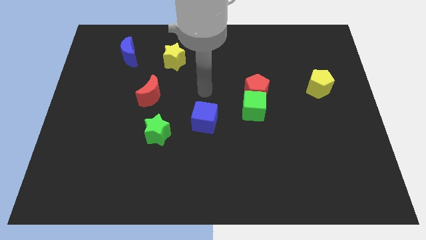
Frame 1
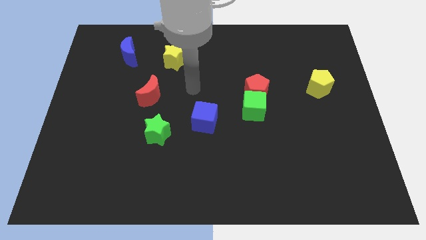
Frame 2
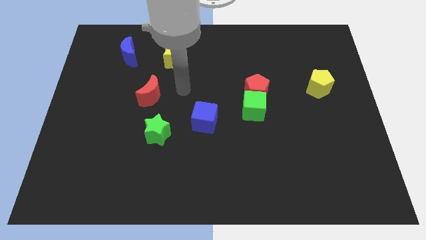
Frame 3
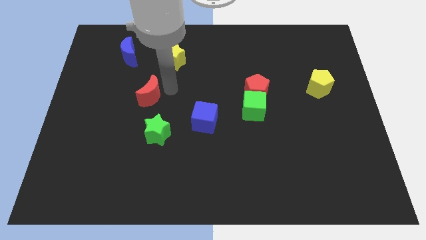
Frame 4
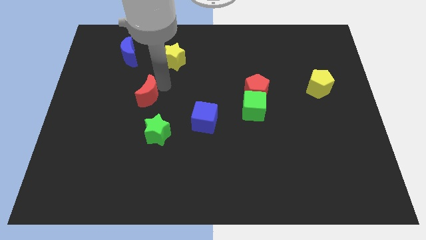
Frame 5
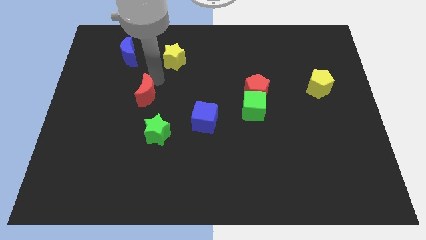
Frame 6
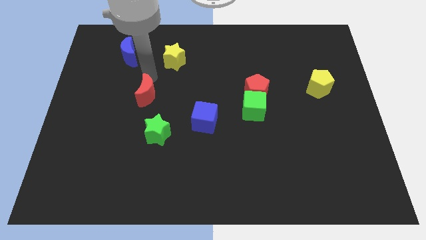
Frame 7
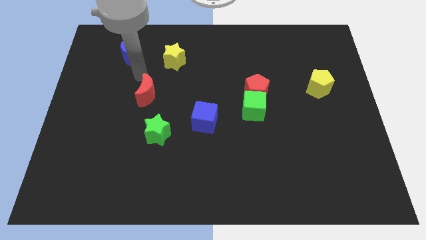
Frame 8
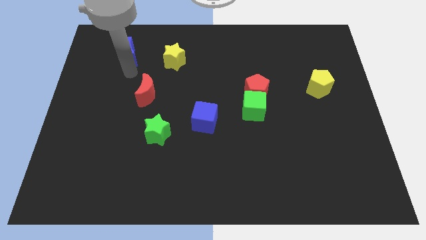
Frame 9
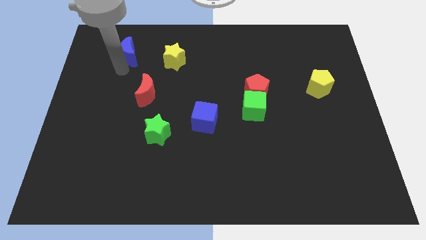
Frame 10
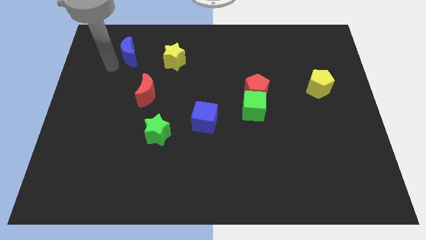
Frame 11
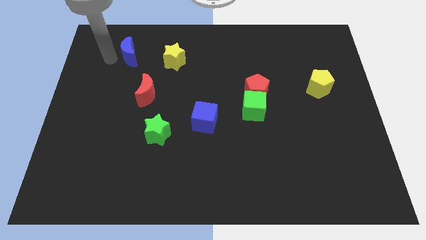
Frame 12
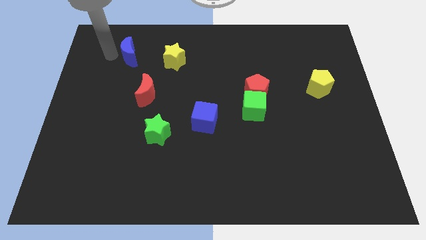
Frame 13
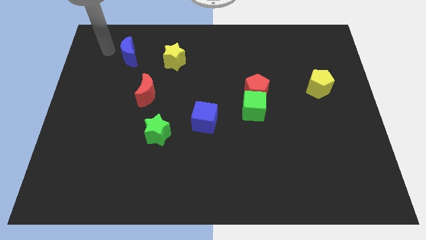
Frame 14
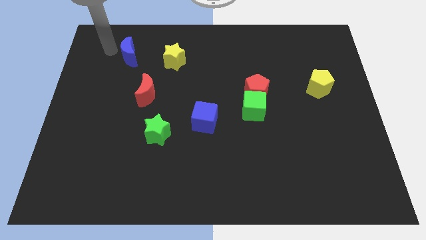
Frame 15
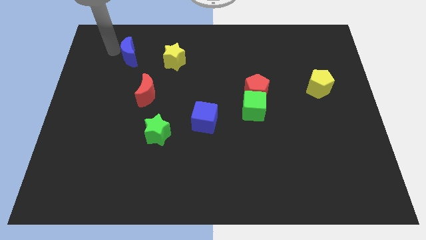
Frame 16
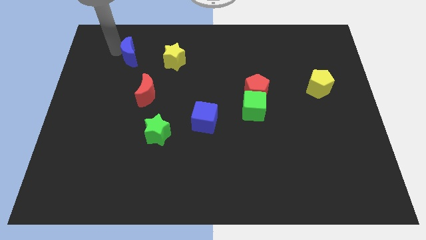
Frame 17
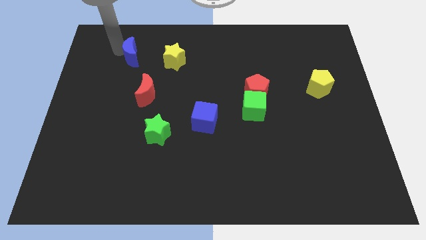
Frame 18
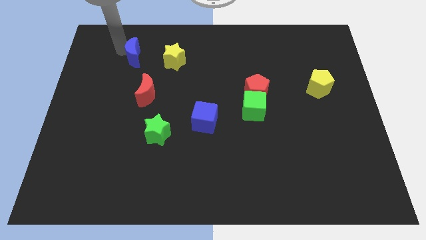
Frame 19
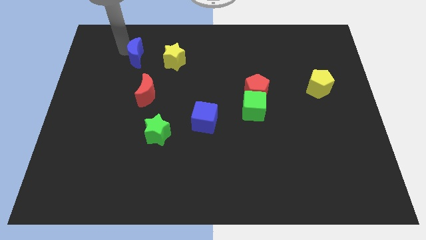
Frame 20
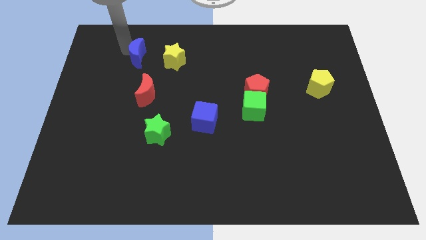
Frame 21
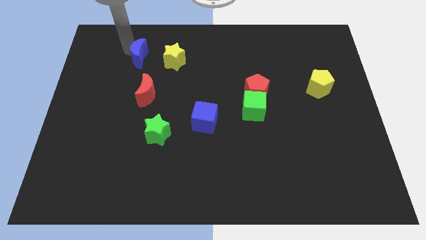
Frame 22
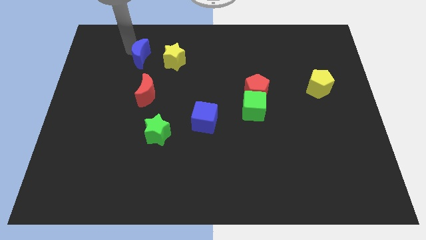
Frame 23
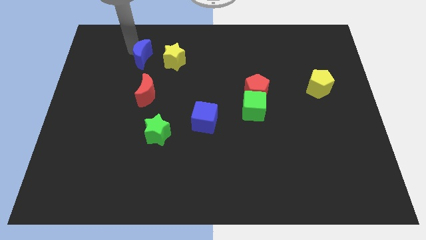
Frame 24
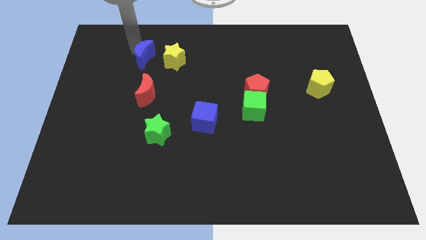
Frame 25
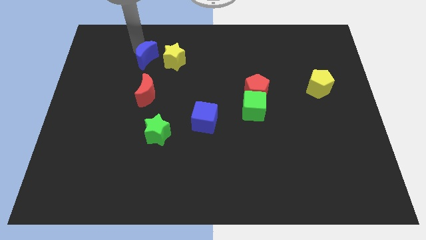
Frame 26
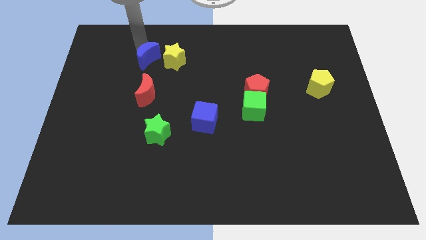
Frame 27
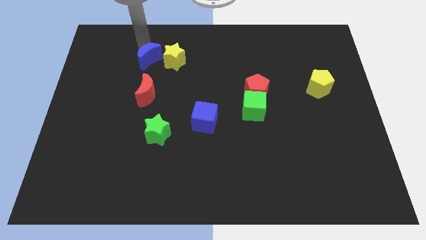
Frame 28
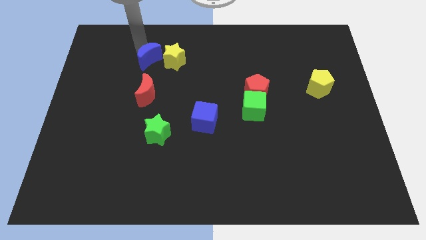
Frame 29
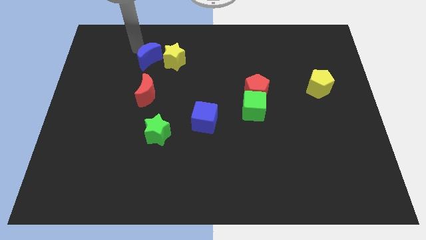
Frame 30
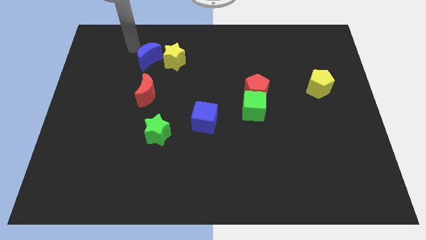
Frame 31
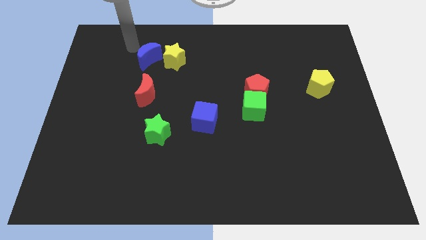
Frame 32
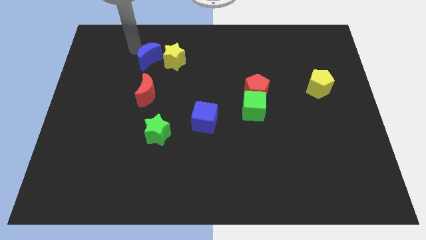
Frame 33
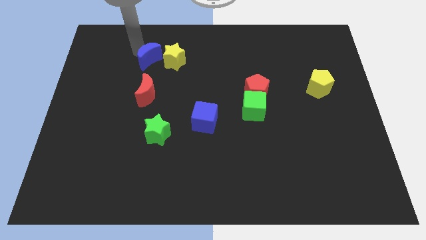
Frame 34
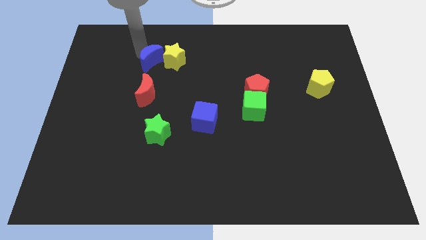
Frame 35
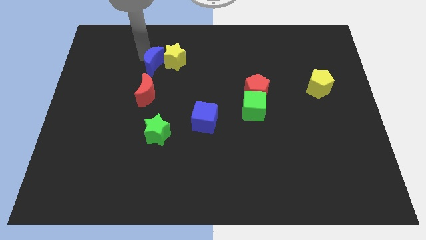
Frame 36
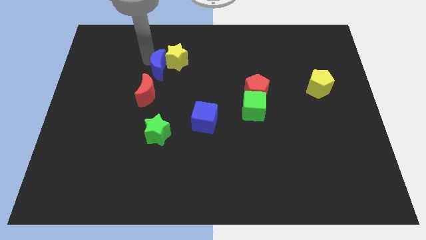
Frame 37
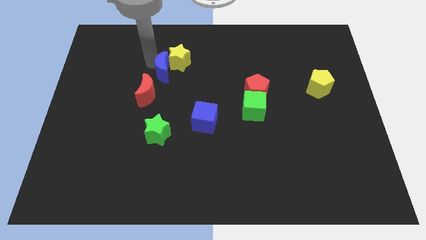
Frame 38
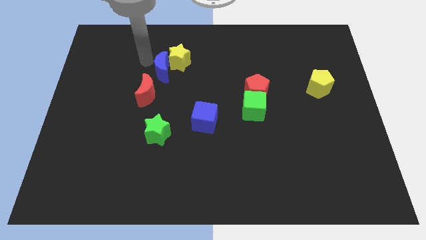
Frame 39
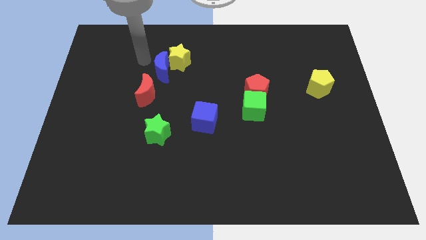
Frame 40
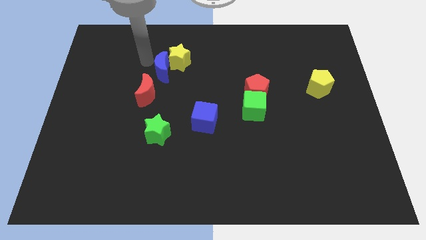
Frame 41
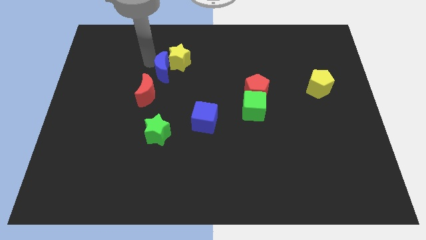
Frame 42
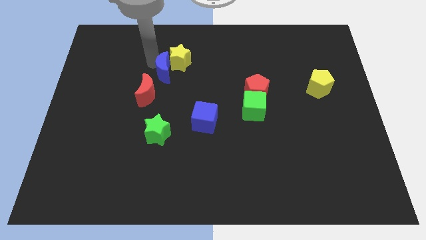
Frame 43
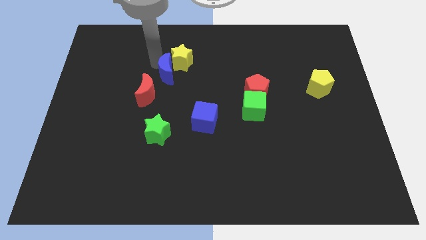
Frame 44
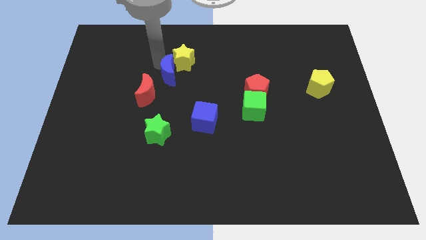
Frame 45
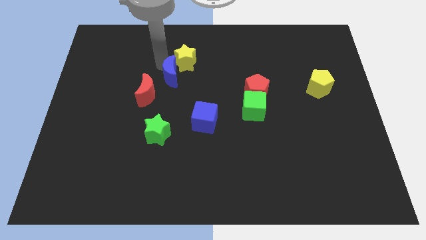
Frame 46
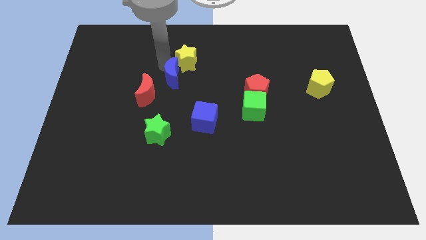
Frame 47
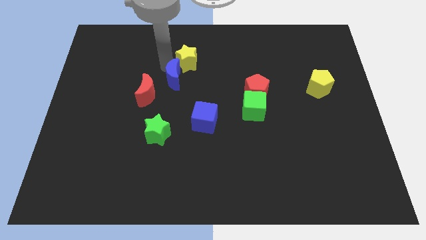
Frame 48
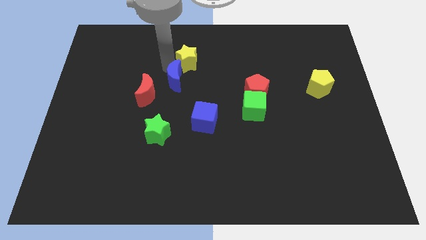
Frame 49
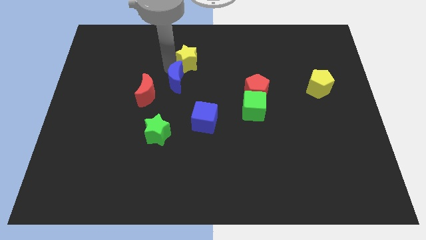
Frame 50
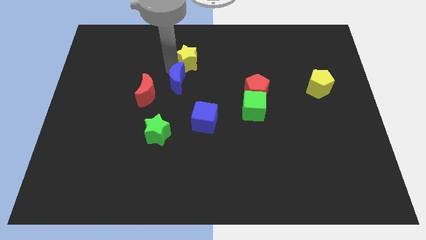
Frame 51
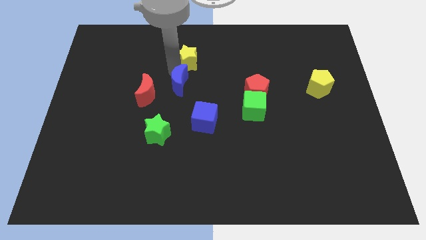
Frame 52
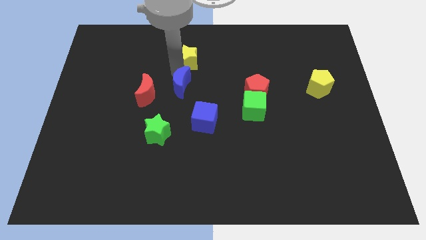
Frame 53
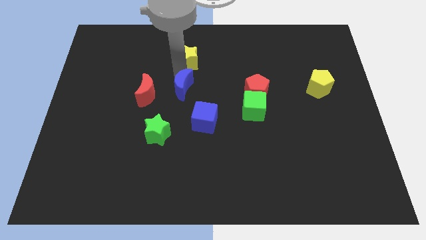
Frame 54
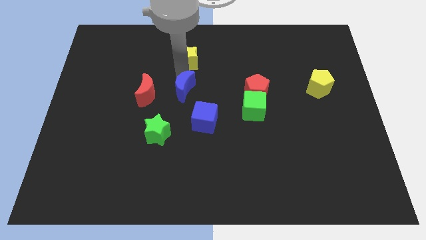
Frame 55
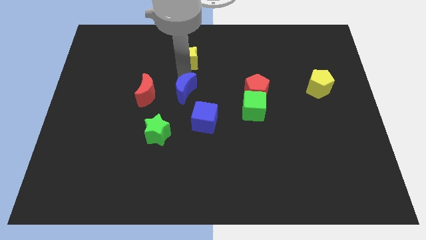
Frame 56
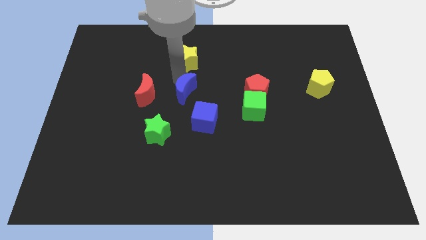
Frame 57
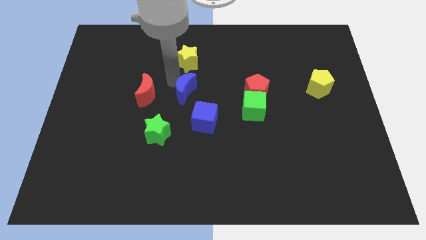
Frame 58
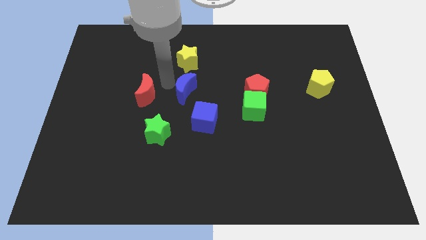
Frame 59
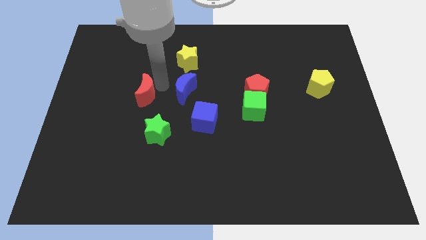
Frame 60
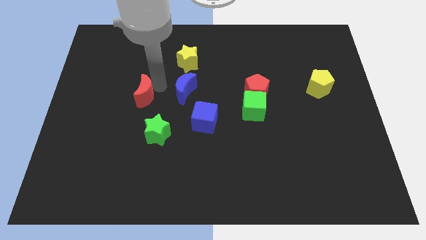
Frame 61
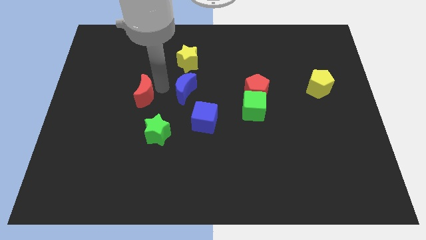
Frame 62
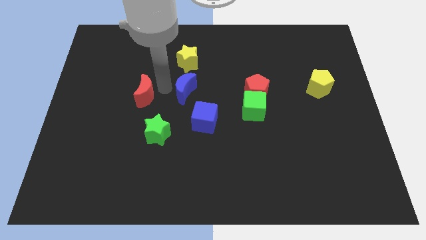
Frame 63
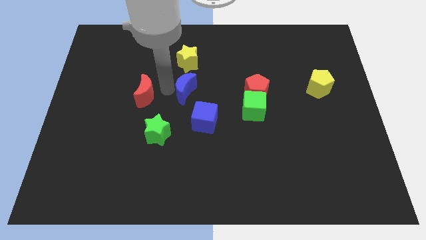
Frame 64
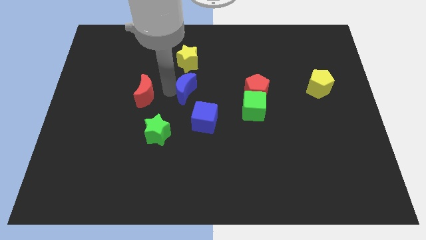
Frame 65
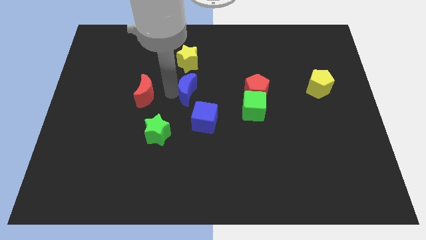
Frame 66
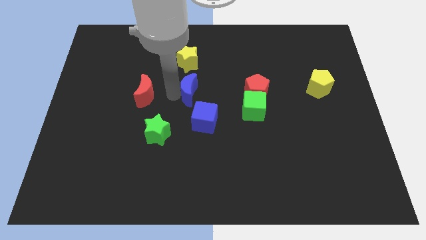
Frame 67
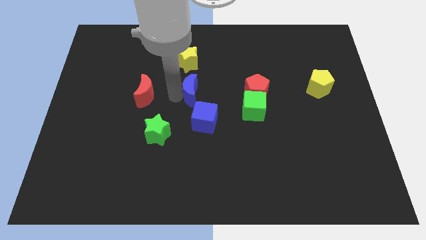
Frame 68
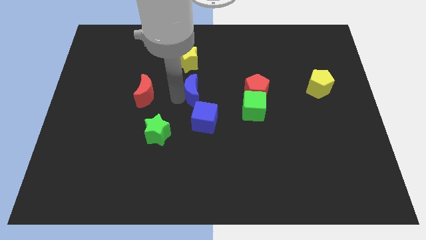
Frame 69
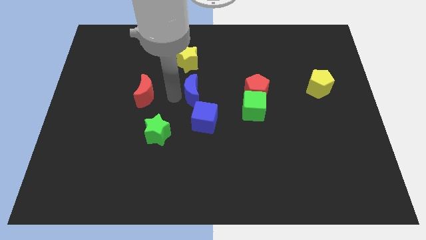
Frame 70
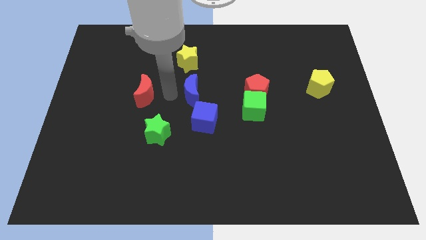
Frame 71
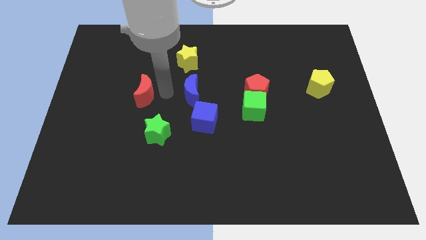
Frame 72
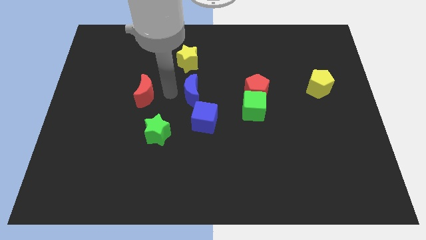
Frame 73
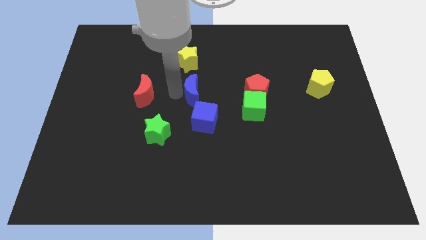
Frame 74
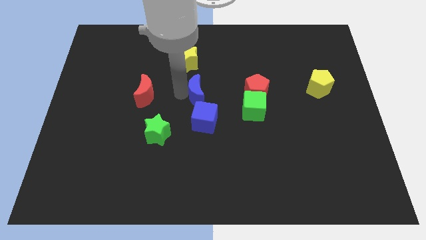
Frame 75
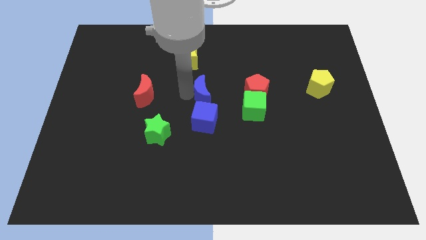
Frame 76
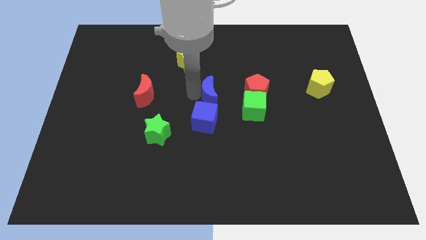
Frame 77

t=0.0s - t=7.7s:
move the blue moon to the top right side of the blue cube
